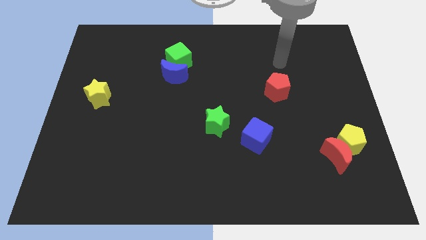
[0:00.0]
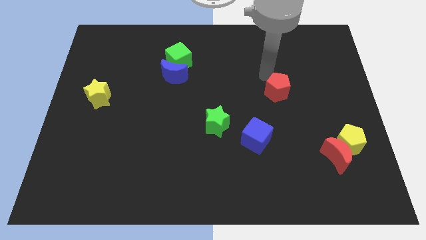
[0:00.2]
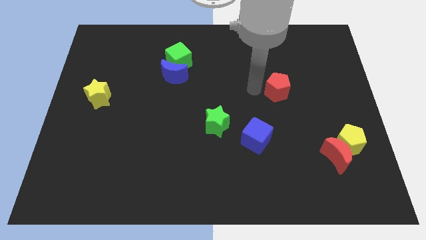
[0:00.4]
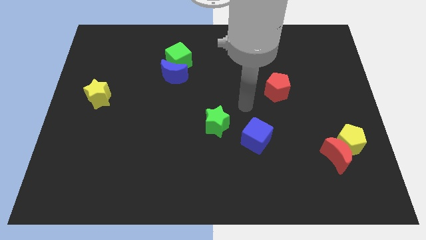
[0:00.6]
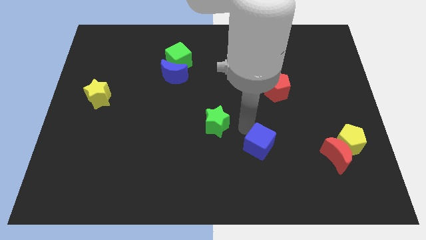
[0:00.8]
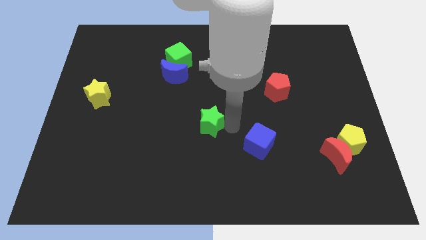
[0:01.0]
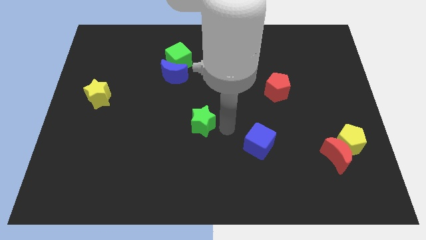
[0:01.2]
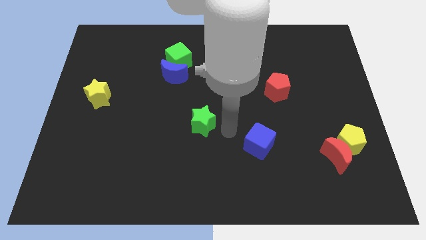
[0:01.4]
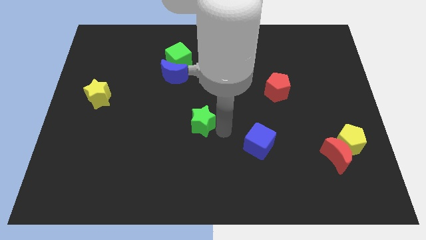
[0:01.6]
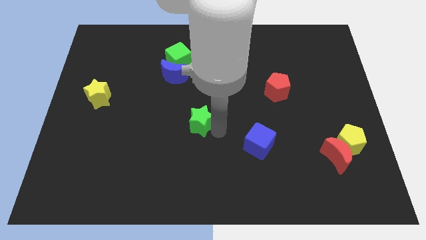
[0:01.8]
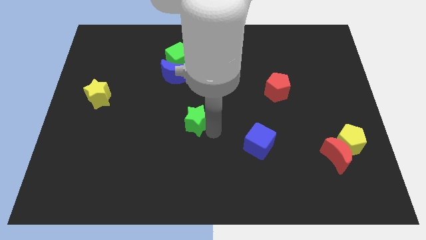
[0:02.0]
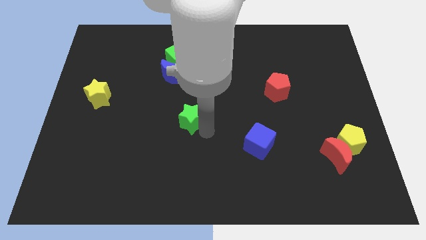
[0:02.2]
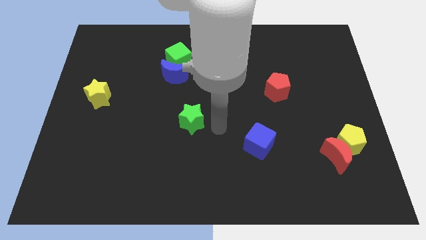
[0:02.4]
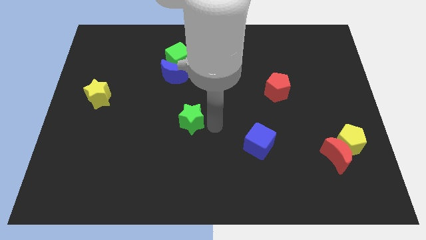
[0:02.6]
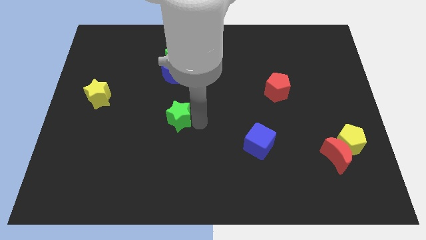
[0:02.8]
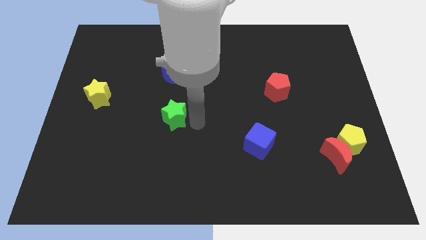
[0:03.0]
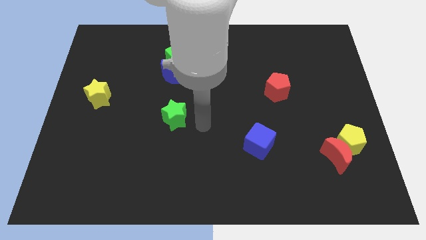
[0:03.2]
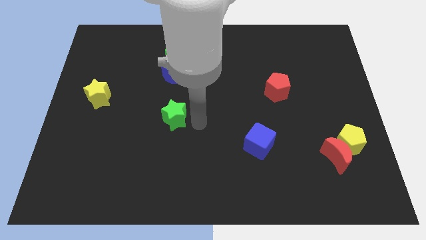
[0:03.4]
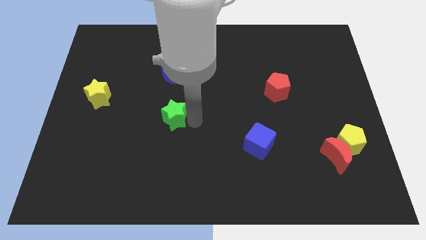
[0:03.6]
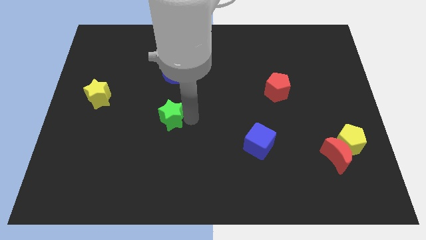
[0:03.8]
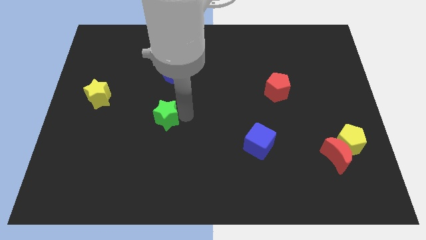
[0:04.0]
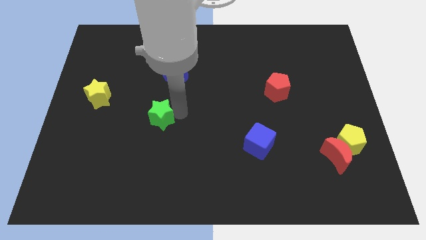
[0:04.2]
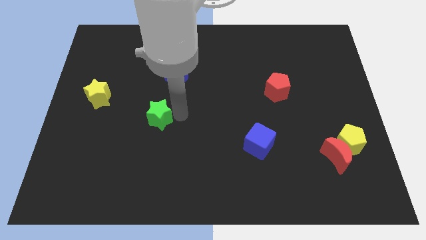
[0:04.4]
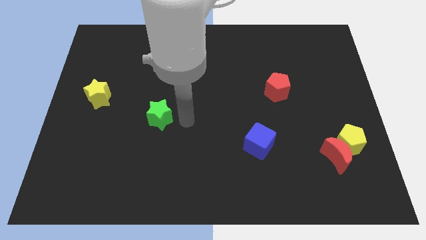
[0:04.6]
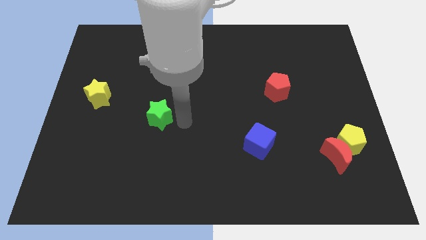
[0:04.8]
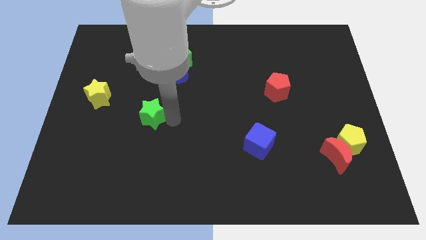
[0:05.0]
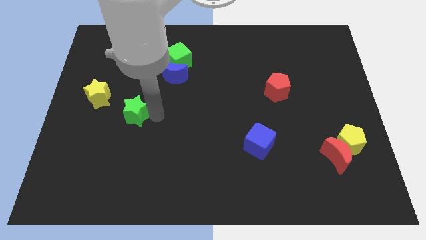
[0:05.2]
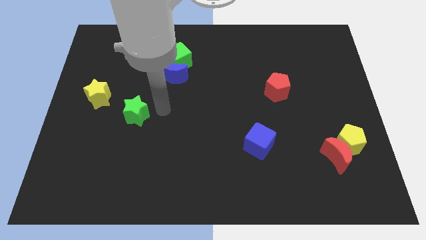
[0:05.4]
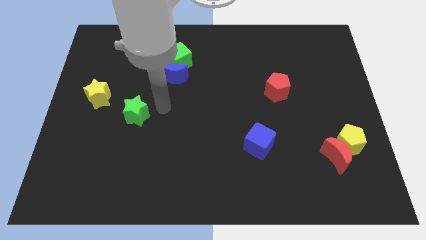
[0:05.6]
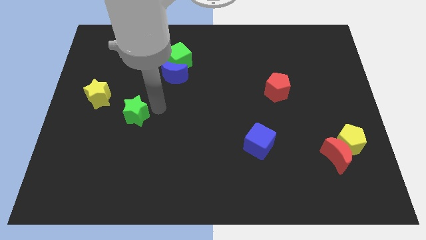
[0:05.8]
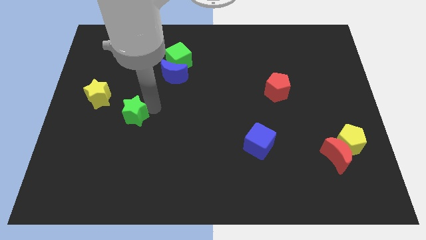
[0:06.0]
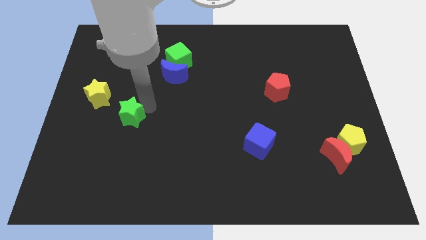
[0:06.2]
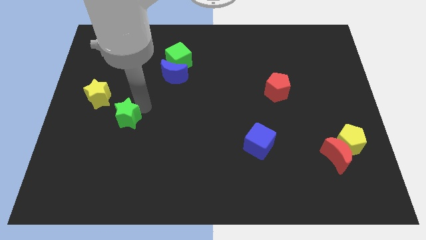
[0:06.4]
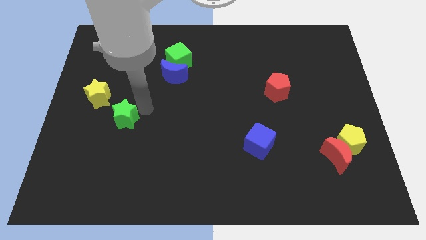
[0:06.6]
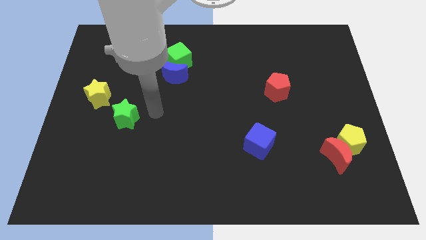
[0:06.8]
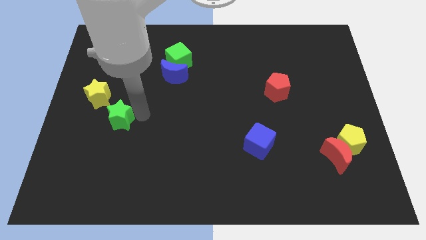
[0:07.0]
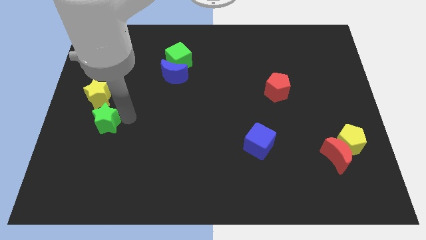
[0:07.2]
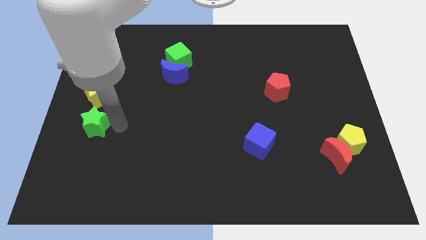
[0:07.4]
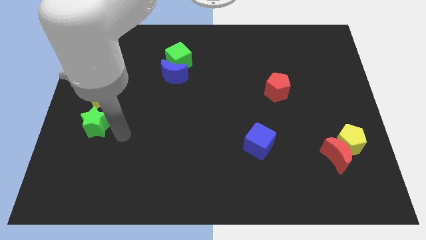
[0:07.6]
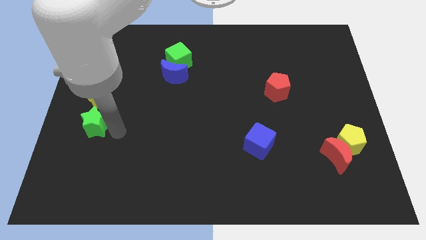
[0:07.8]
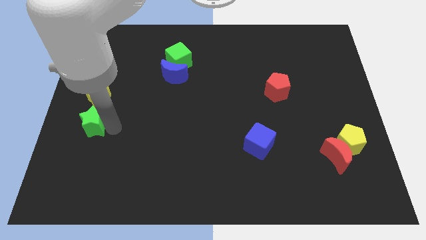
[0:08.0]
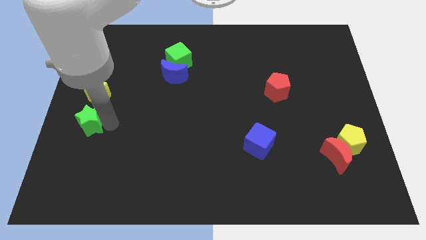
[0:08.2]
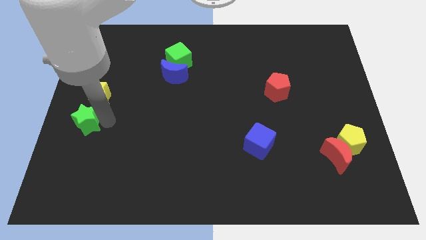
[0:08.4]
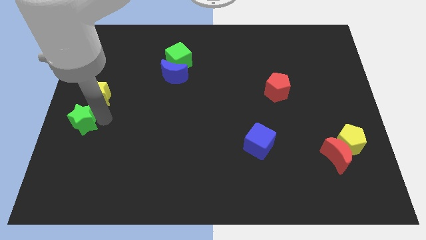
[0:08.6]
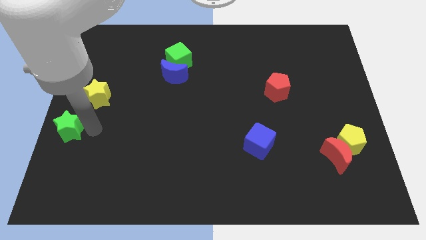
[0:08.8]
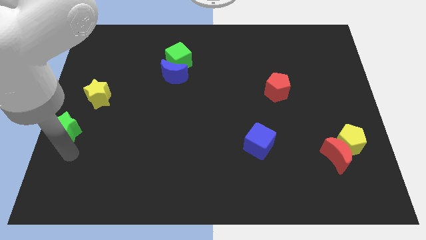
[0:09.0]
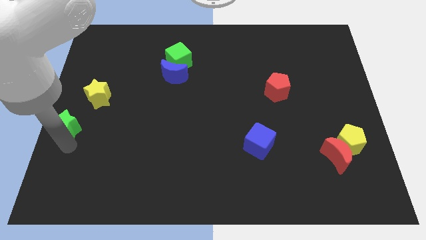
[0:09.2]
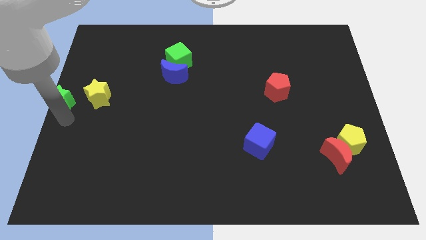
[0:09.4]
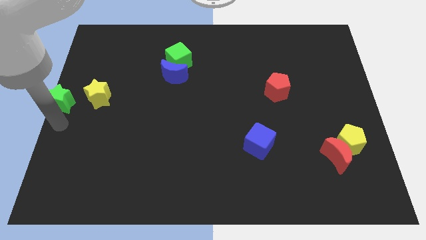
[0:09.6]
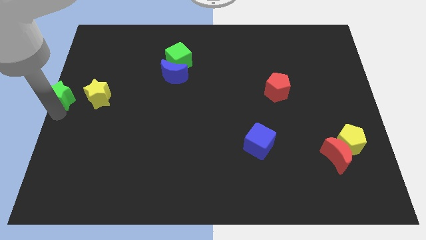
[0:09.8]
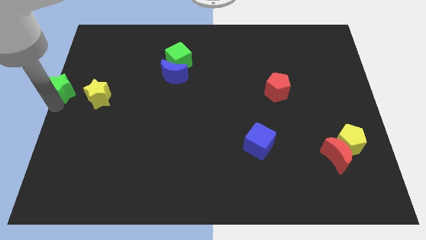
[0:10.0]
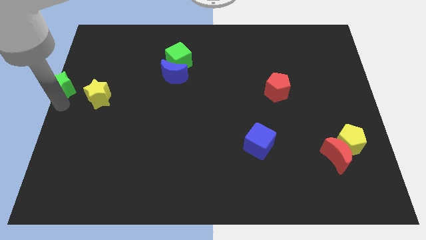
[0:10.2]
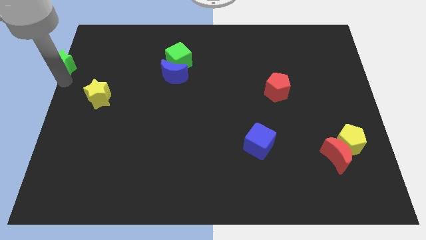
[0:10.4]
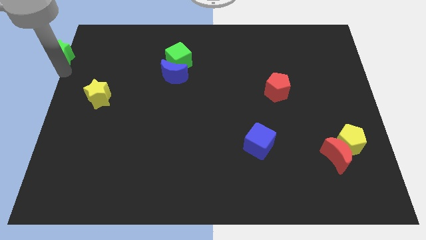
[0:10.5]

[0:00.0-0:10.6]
move the green star to the upper left corner

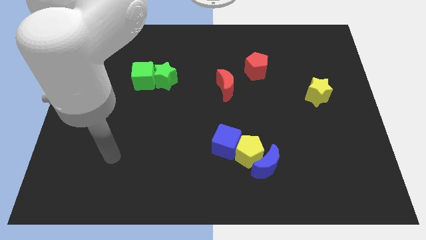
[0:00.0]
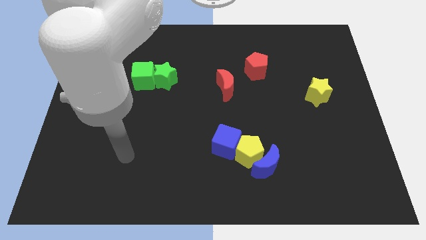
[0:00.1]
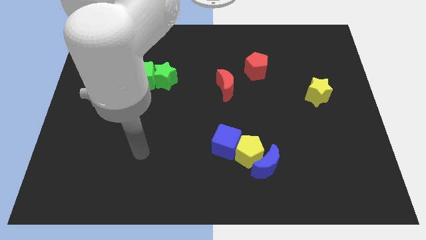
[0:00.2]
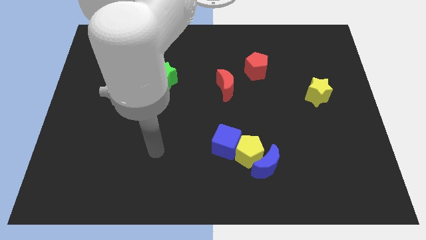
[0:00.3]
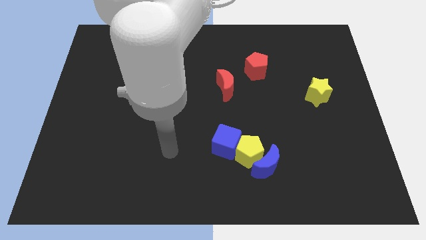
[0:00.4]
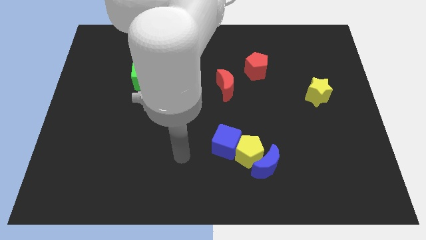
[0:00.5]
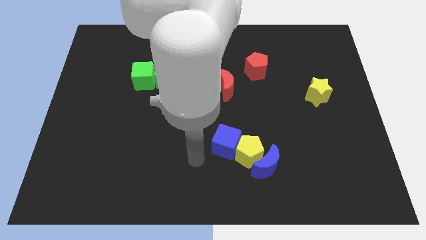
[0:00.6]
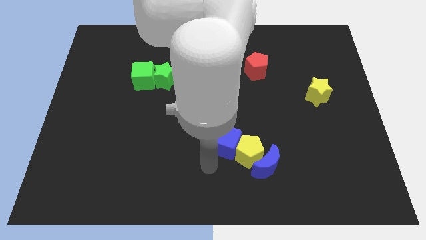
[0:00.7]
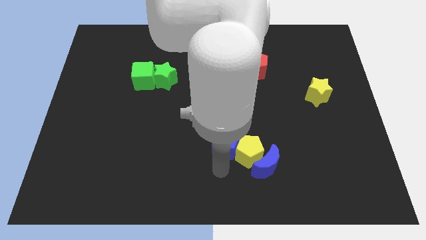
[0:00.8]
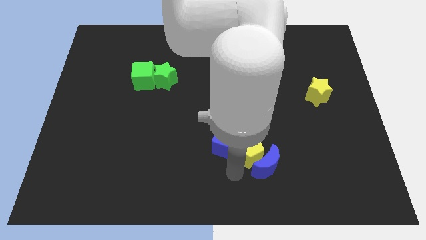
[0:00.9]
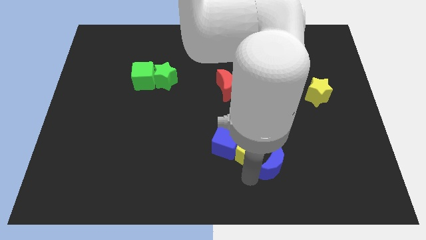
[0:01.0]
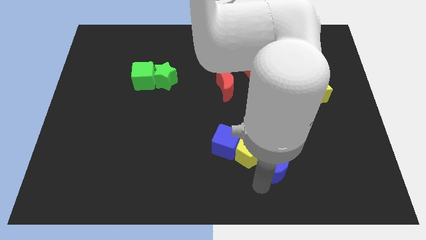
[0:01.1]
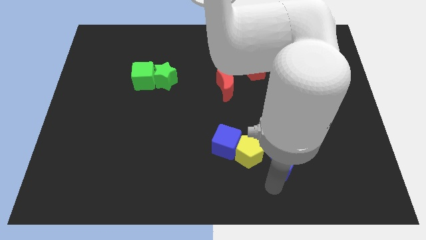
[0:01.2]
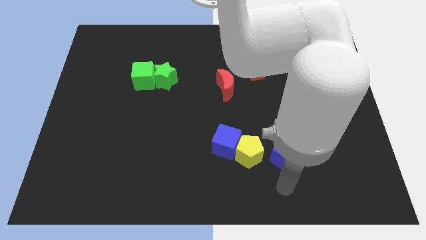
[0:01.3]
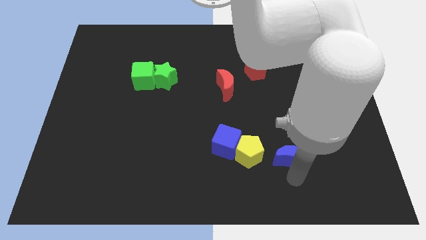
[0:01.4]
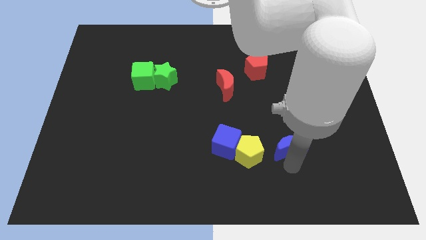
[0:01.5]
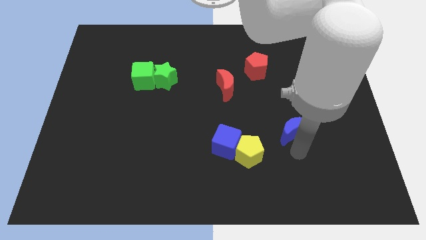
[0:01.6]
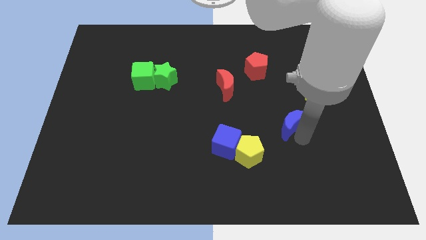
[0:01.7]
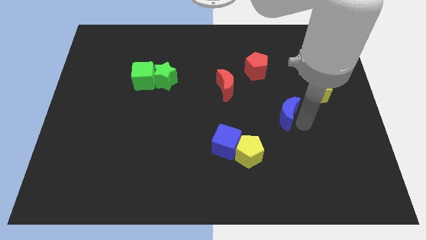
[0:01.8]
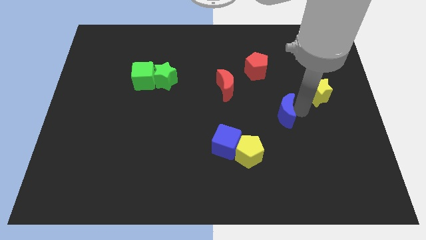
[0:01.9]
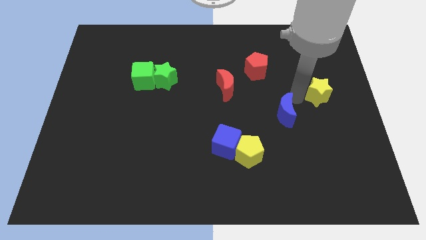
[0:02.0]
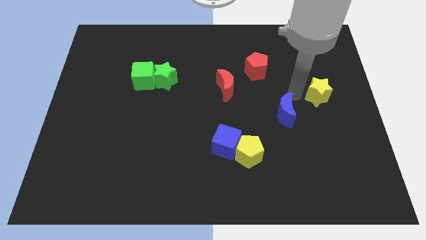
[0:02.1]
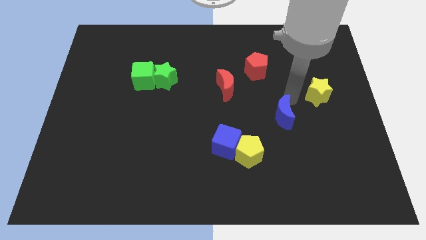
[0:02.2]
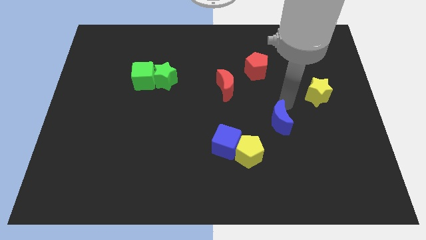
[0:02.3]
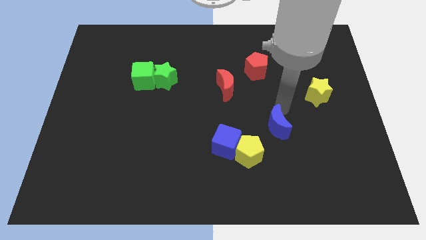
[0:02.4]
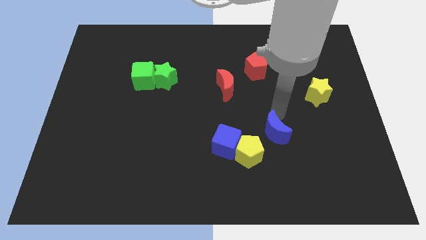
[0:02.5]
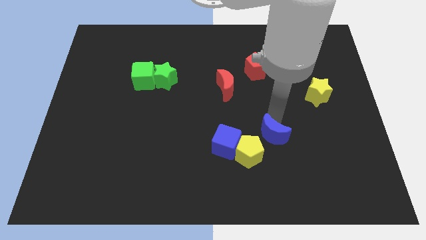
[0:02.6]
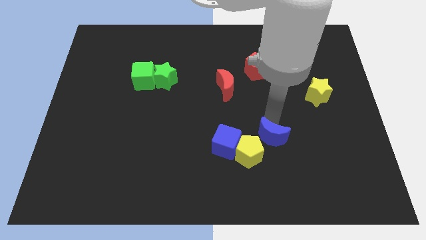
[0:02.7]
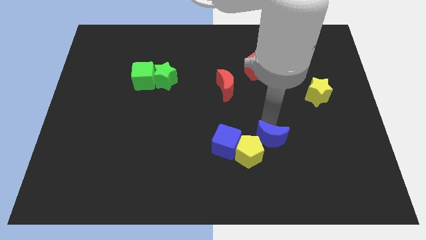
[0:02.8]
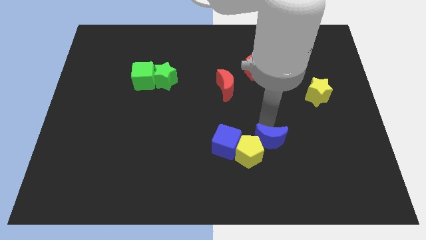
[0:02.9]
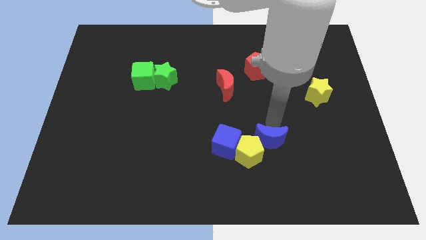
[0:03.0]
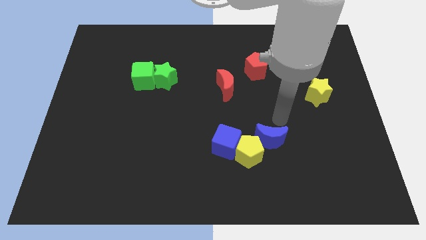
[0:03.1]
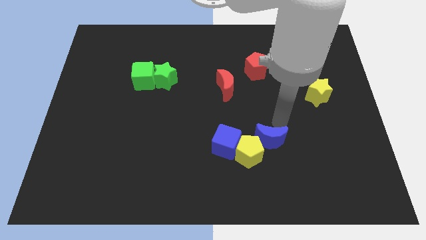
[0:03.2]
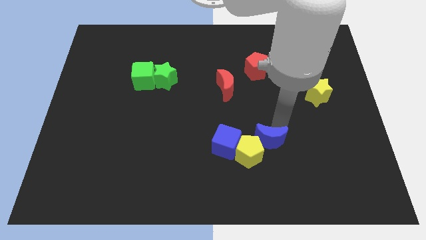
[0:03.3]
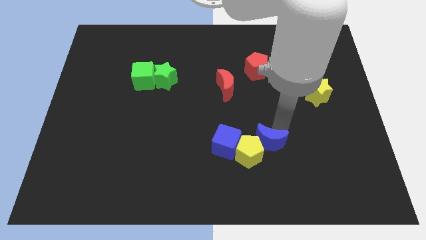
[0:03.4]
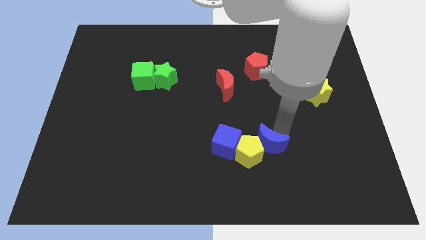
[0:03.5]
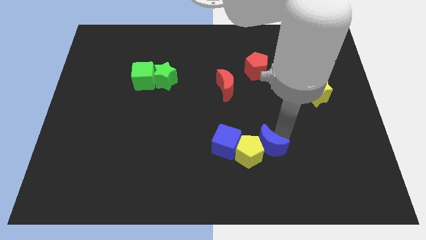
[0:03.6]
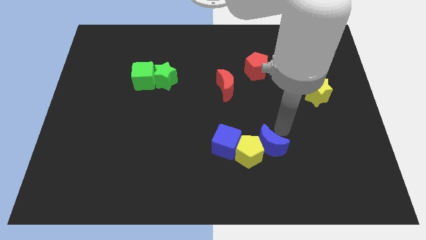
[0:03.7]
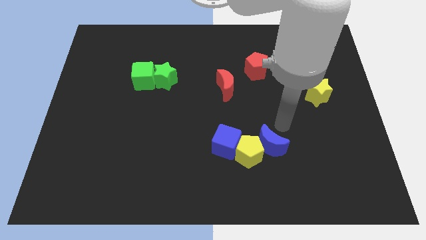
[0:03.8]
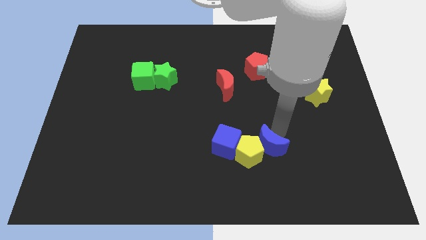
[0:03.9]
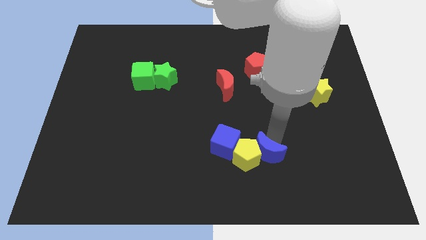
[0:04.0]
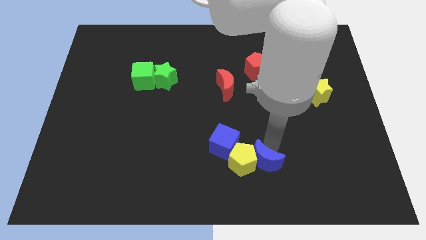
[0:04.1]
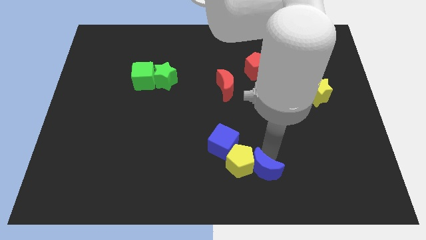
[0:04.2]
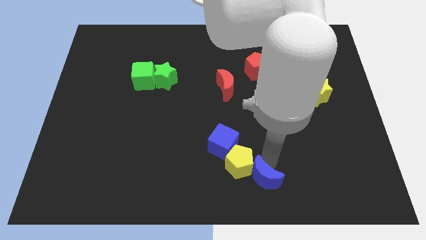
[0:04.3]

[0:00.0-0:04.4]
move the blue moon to the bottom
